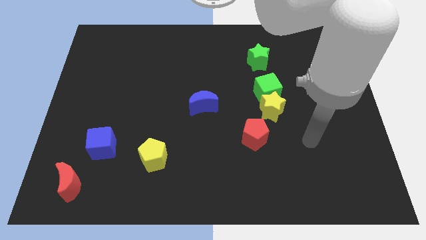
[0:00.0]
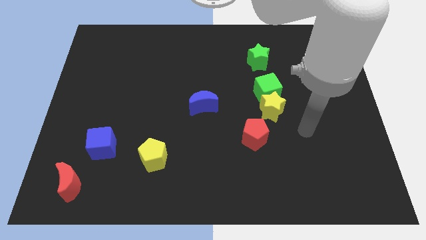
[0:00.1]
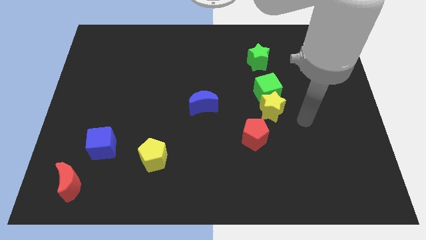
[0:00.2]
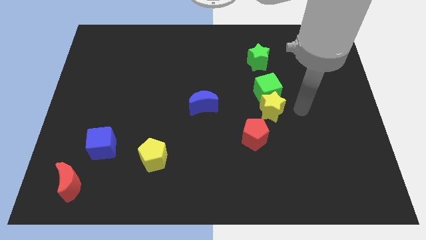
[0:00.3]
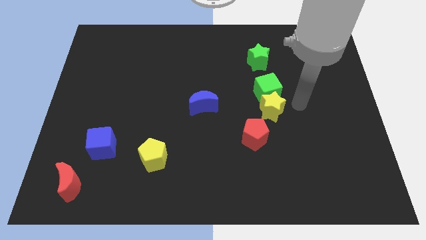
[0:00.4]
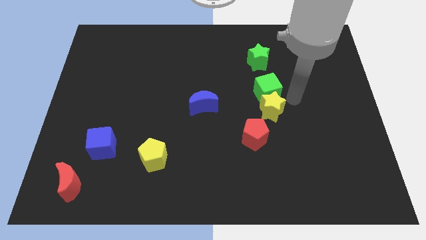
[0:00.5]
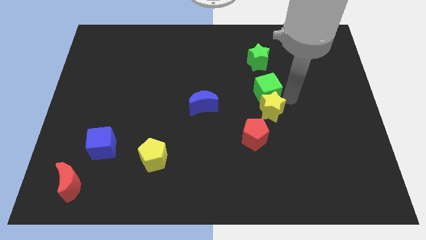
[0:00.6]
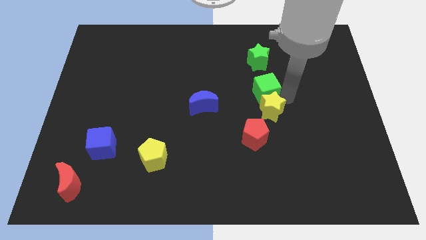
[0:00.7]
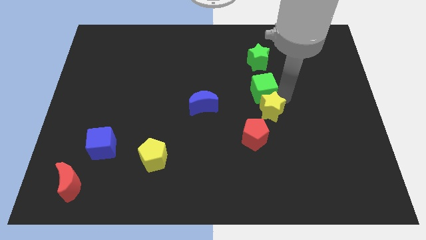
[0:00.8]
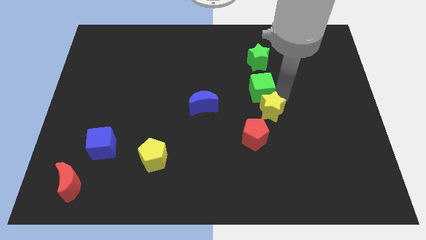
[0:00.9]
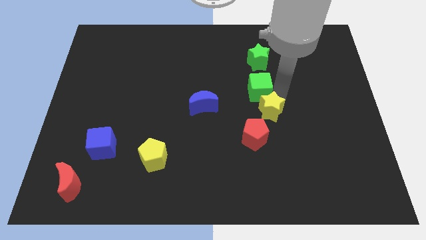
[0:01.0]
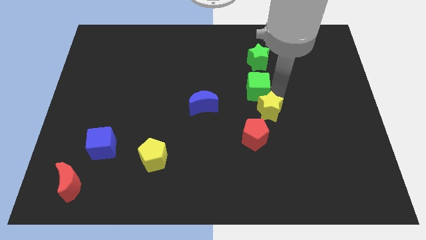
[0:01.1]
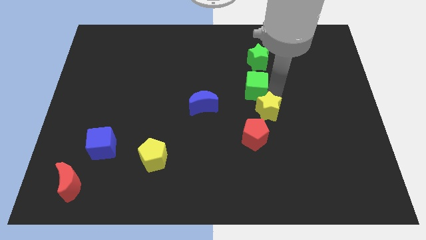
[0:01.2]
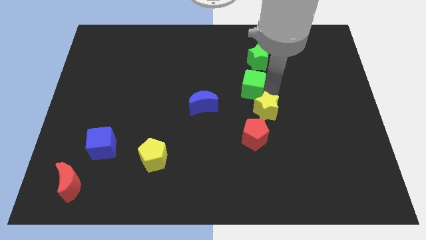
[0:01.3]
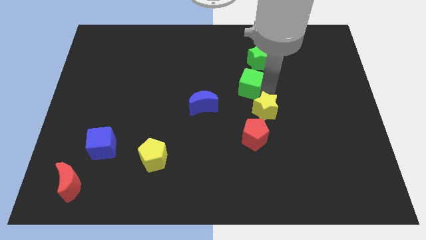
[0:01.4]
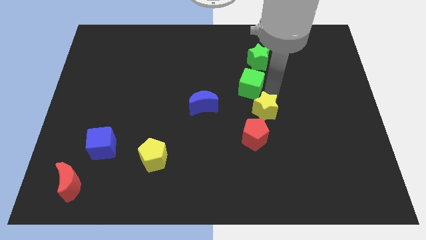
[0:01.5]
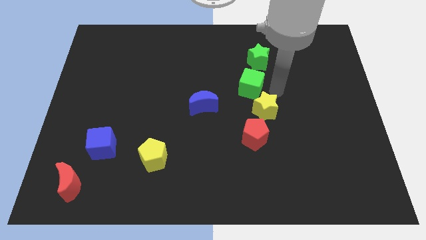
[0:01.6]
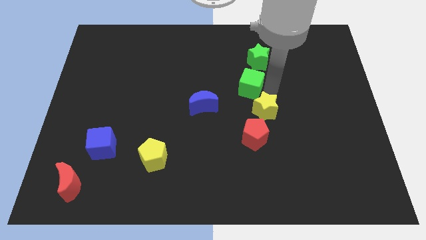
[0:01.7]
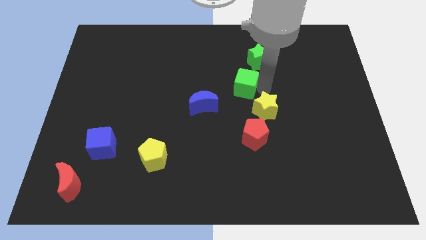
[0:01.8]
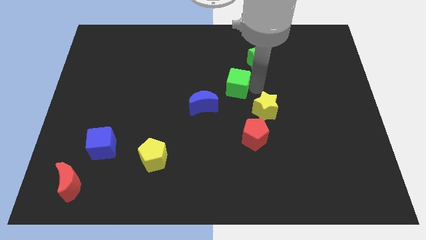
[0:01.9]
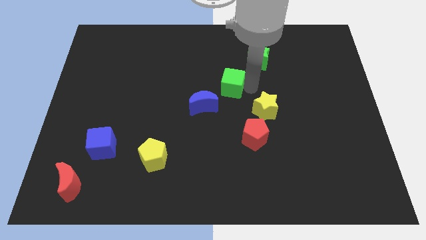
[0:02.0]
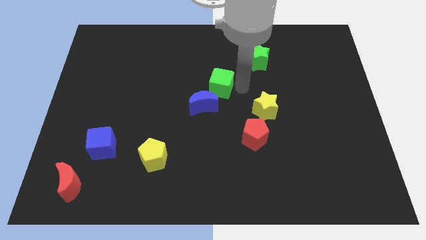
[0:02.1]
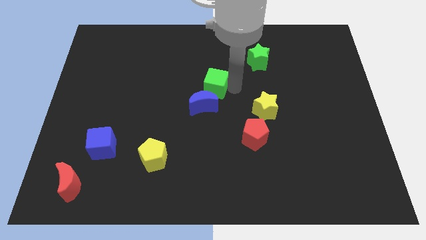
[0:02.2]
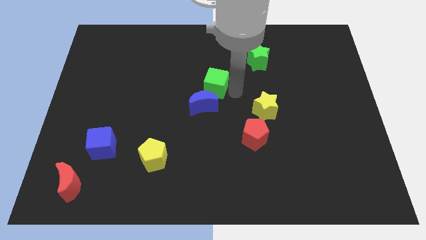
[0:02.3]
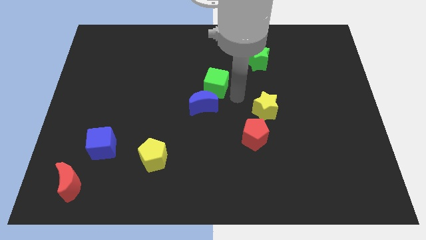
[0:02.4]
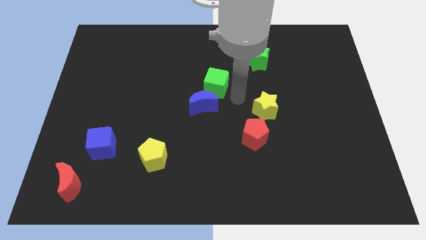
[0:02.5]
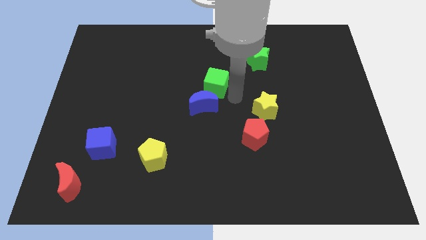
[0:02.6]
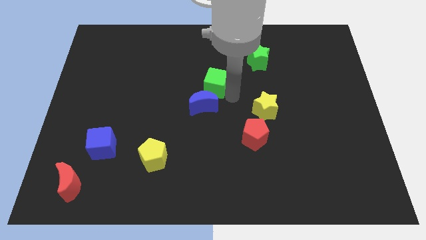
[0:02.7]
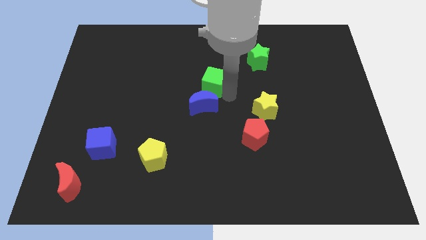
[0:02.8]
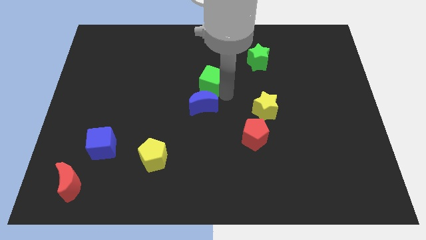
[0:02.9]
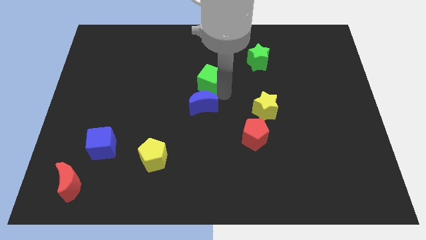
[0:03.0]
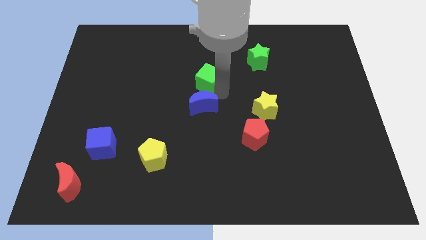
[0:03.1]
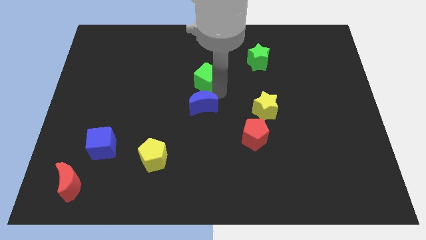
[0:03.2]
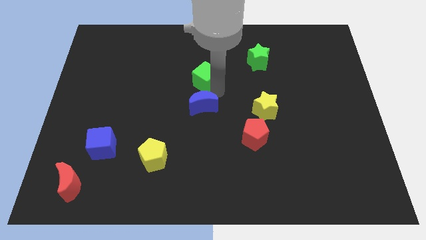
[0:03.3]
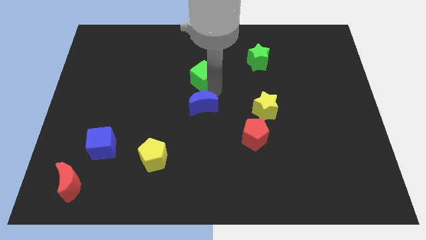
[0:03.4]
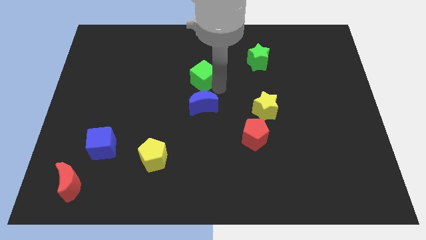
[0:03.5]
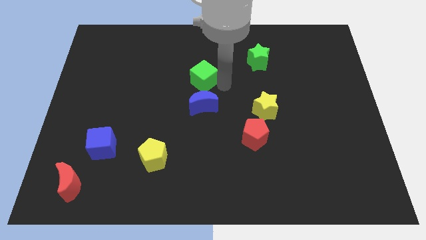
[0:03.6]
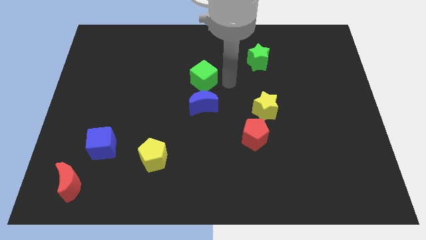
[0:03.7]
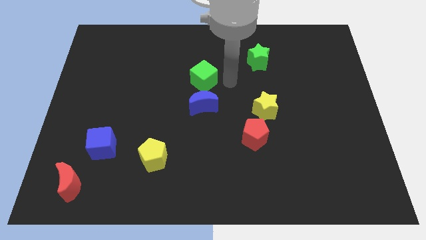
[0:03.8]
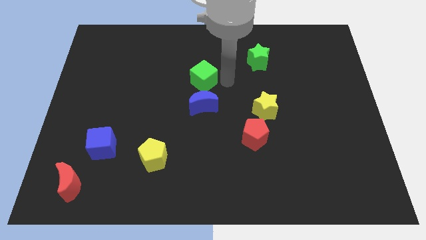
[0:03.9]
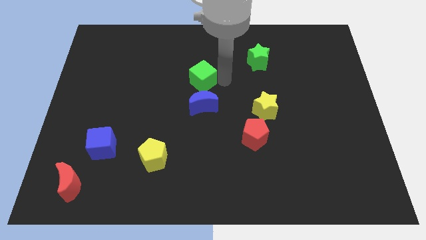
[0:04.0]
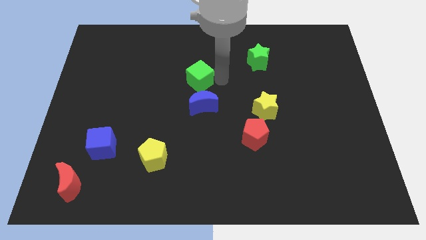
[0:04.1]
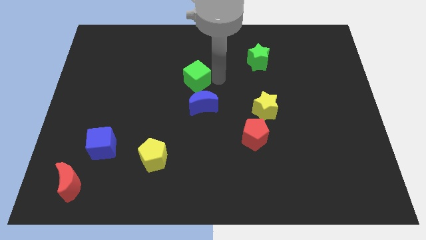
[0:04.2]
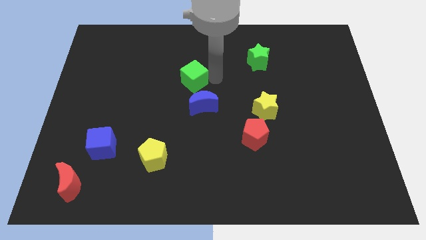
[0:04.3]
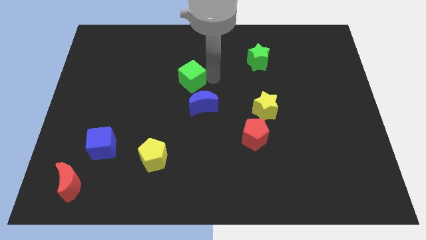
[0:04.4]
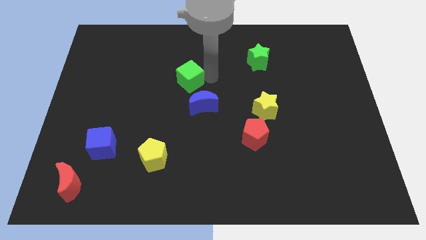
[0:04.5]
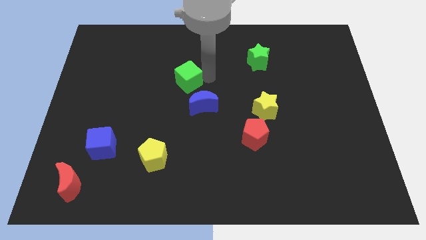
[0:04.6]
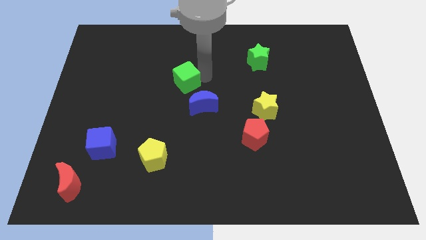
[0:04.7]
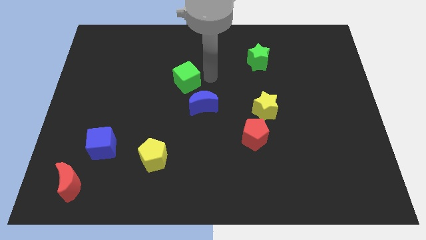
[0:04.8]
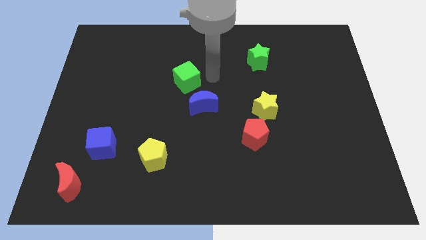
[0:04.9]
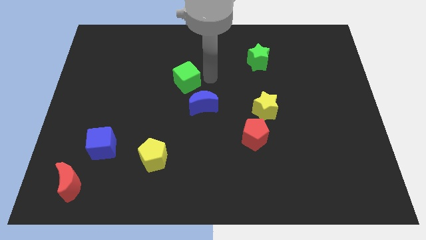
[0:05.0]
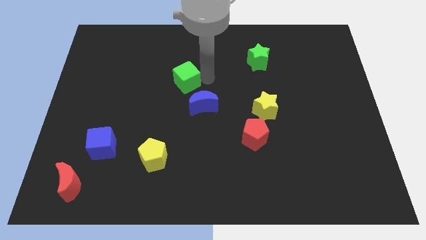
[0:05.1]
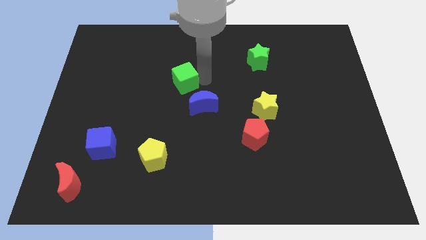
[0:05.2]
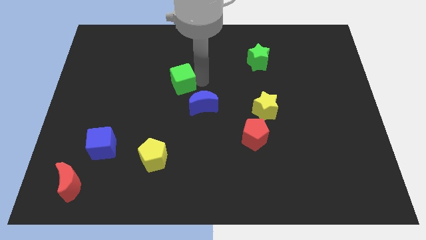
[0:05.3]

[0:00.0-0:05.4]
slide the green cube to the left

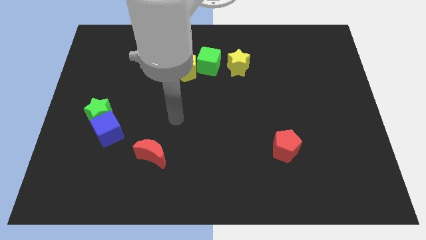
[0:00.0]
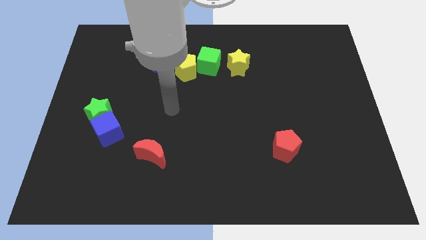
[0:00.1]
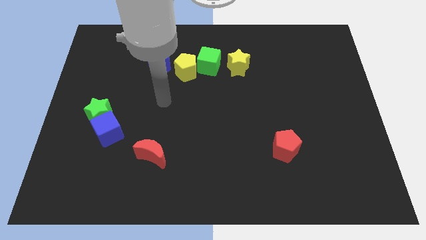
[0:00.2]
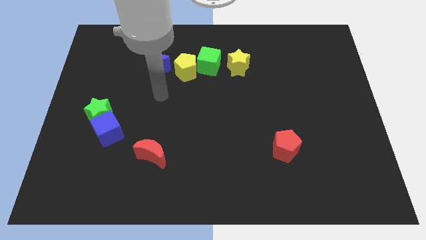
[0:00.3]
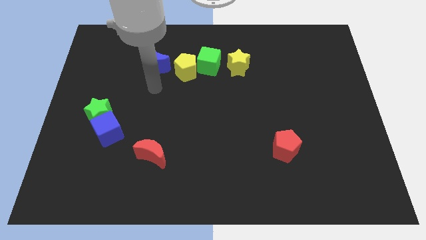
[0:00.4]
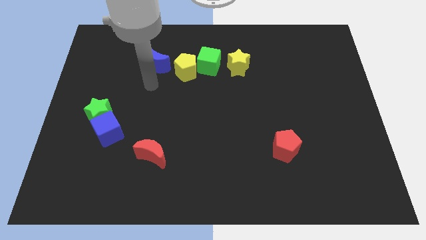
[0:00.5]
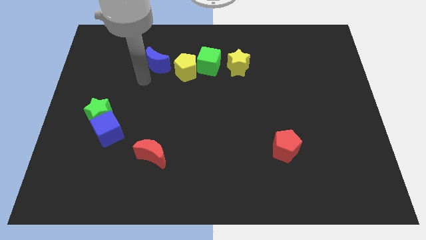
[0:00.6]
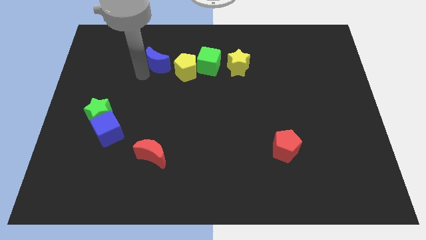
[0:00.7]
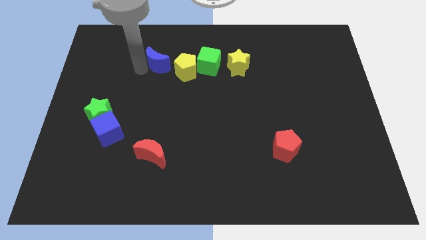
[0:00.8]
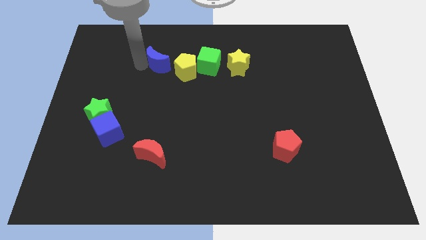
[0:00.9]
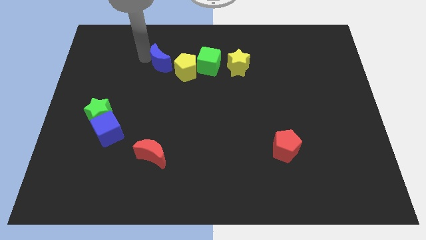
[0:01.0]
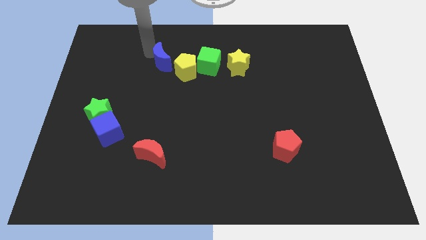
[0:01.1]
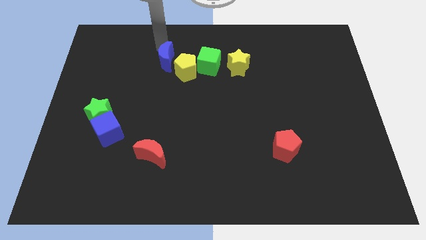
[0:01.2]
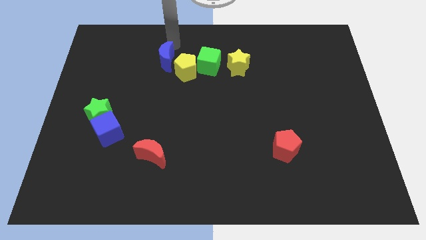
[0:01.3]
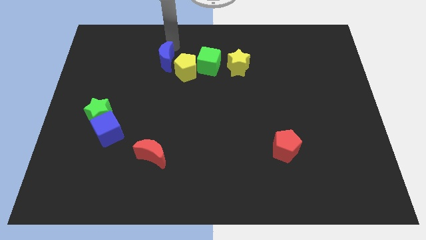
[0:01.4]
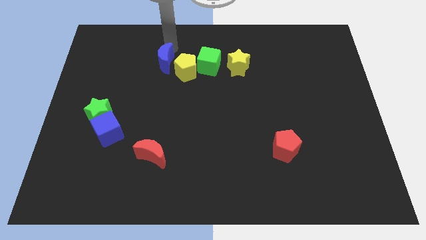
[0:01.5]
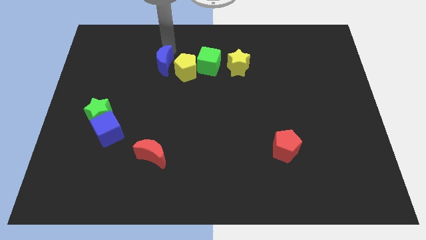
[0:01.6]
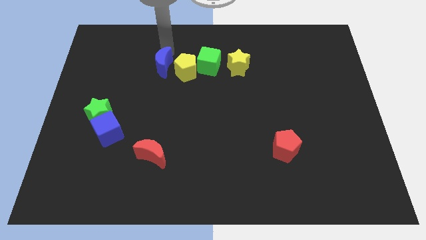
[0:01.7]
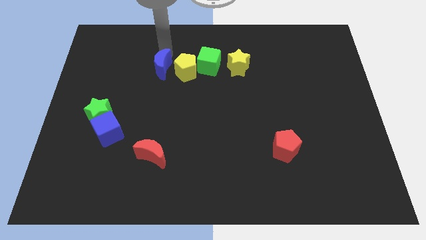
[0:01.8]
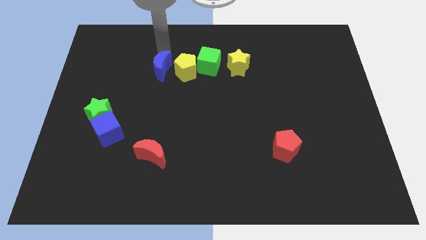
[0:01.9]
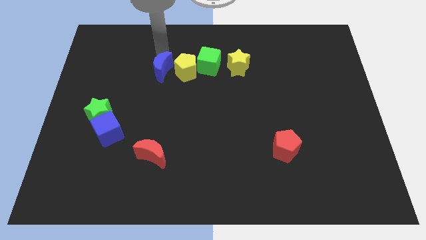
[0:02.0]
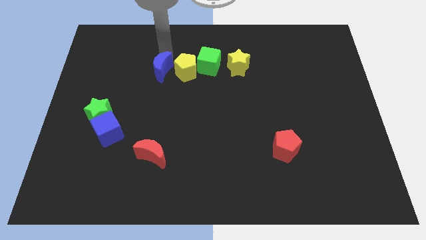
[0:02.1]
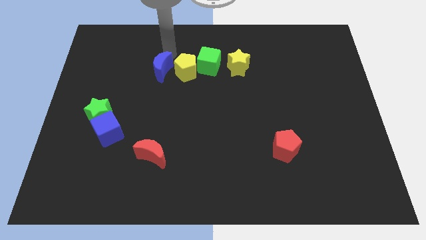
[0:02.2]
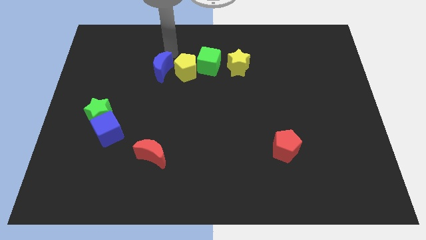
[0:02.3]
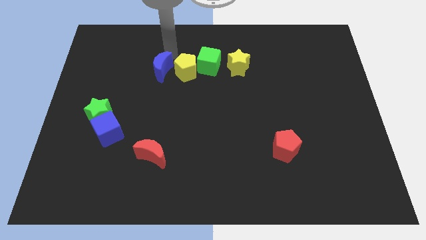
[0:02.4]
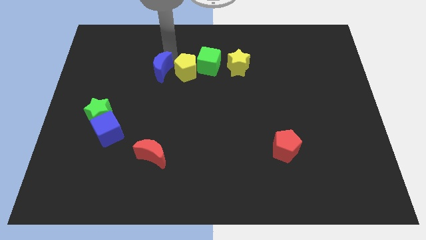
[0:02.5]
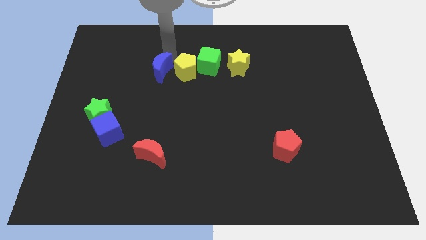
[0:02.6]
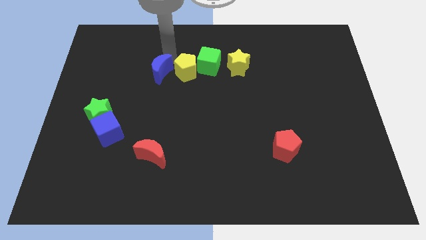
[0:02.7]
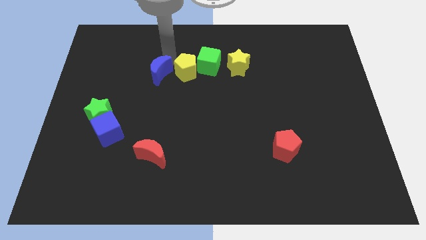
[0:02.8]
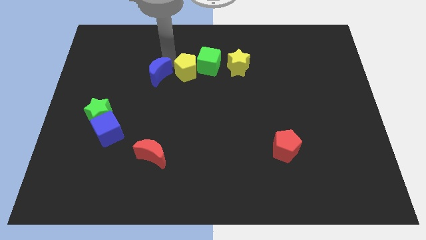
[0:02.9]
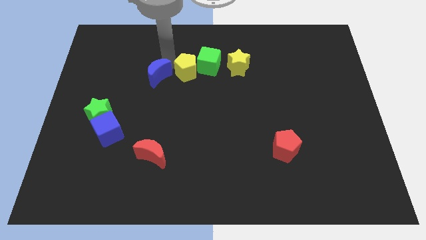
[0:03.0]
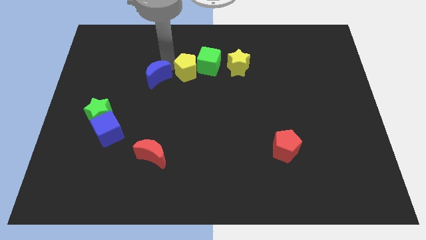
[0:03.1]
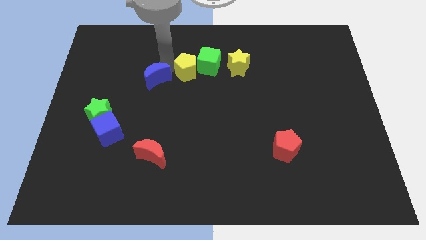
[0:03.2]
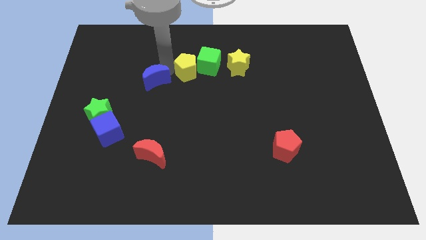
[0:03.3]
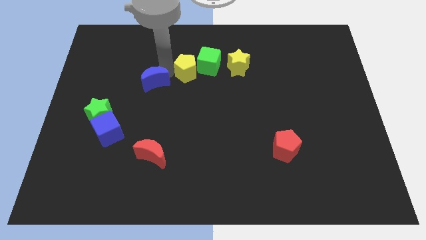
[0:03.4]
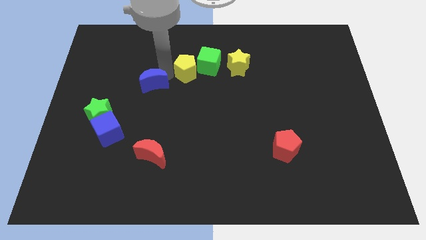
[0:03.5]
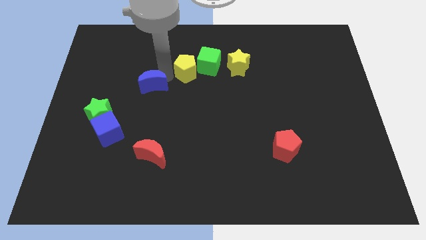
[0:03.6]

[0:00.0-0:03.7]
slightly move the blue moon down
